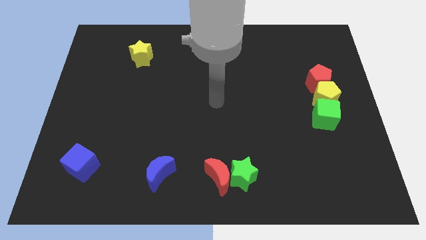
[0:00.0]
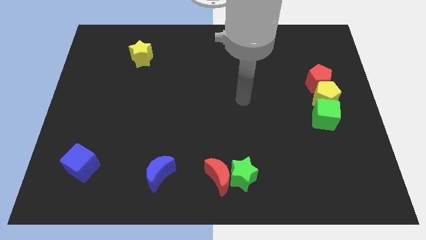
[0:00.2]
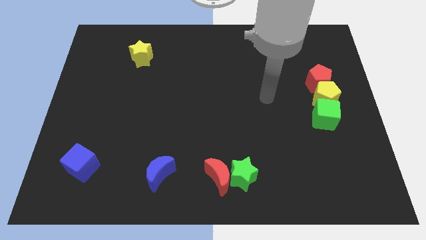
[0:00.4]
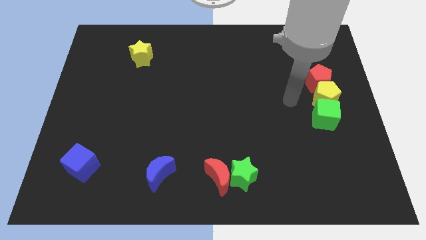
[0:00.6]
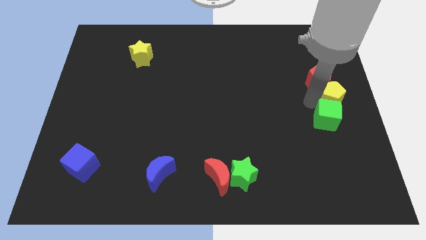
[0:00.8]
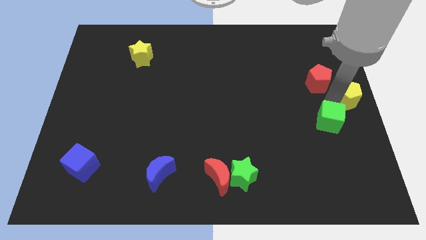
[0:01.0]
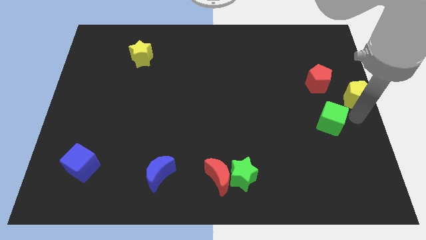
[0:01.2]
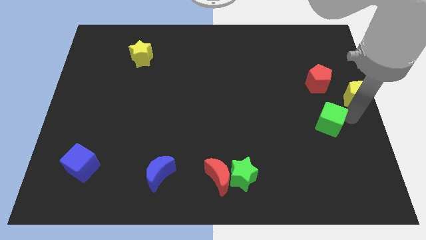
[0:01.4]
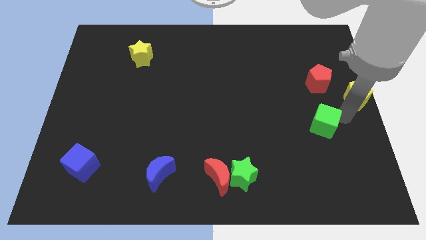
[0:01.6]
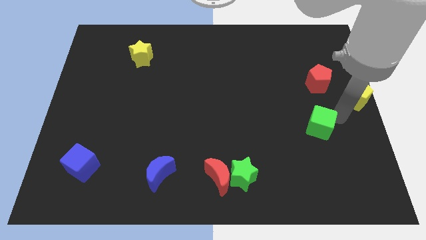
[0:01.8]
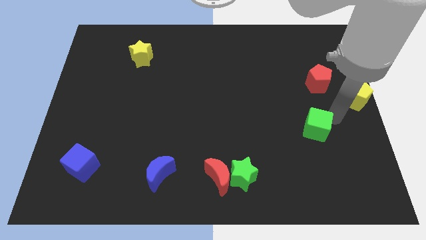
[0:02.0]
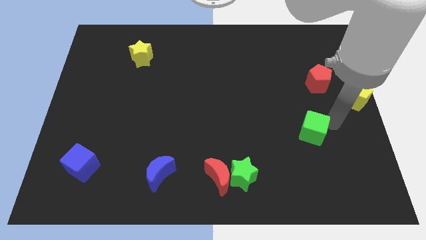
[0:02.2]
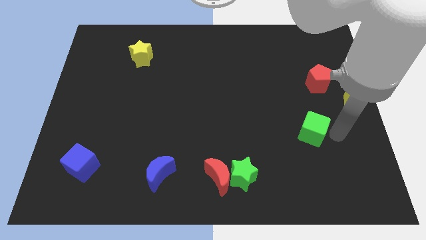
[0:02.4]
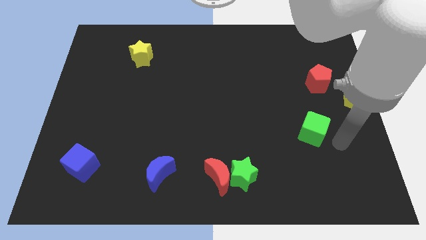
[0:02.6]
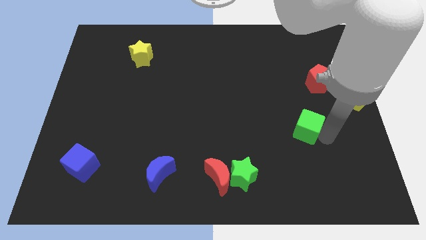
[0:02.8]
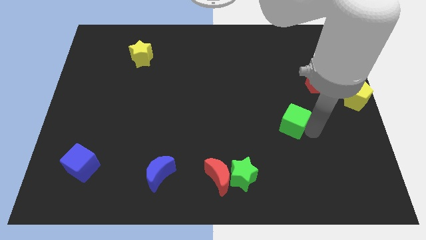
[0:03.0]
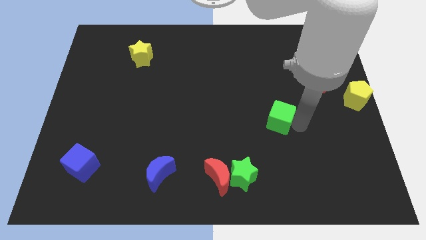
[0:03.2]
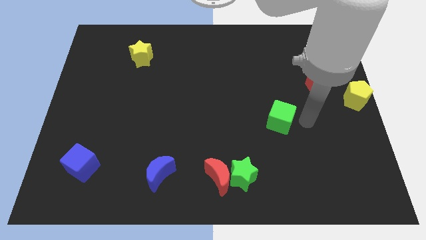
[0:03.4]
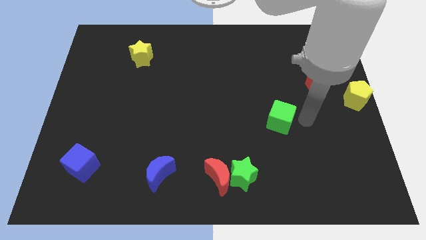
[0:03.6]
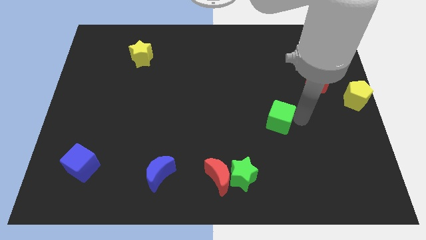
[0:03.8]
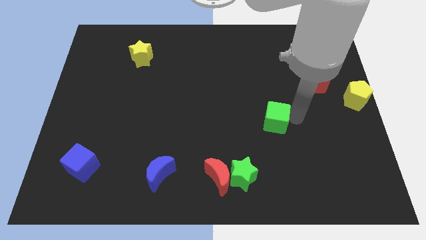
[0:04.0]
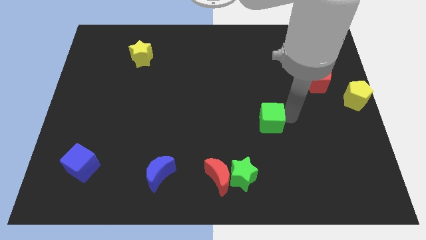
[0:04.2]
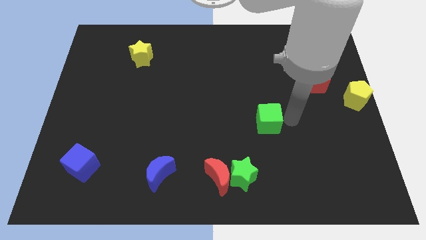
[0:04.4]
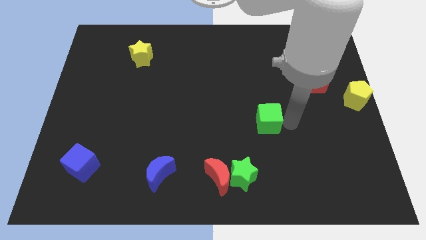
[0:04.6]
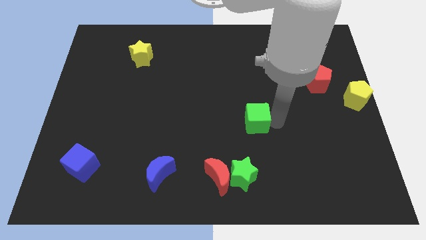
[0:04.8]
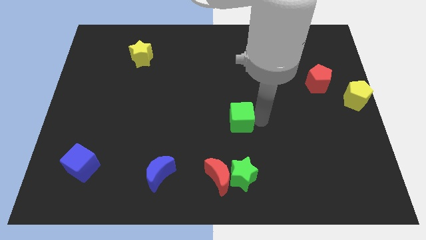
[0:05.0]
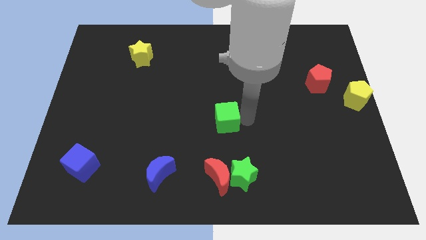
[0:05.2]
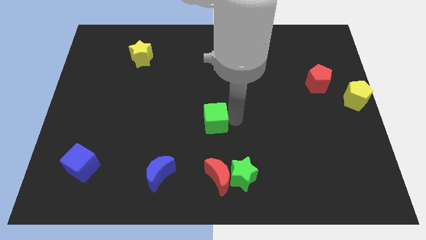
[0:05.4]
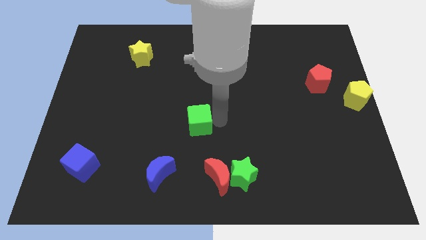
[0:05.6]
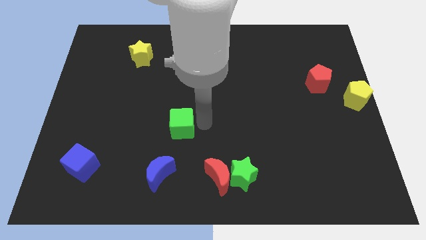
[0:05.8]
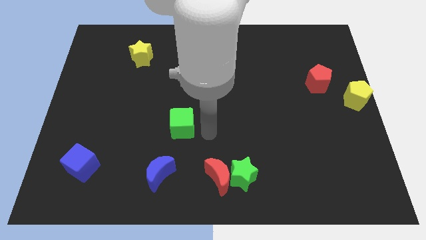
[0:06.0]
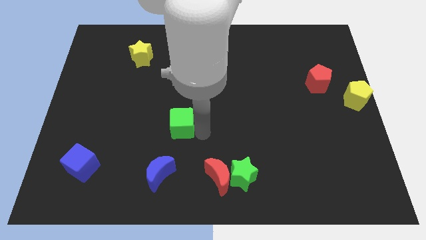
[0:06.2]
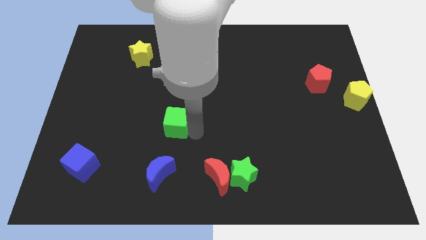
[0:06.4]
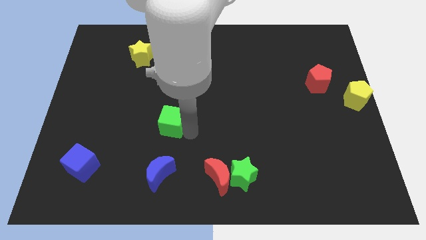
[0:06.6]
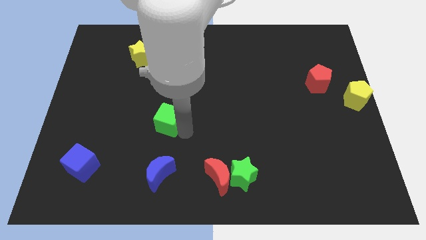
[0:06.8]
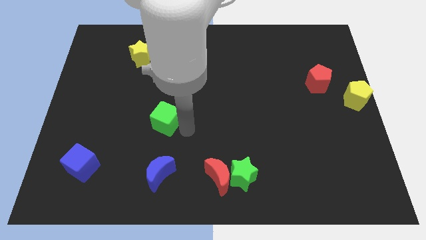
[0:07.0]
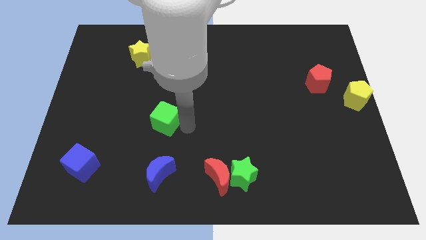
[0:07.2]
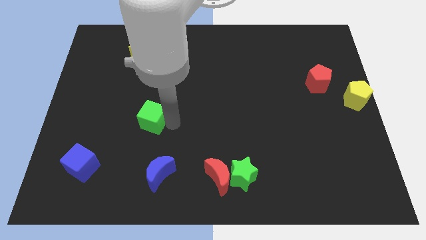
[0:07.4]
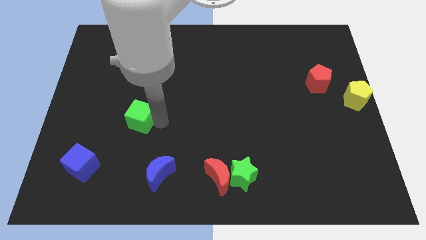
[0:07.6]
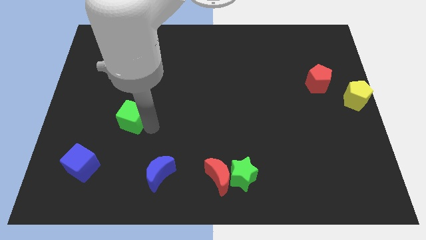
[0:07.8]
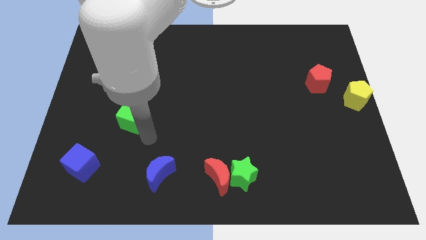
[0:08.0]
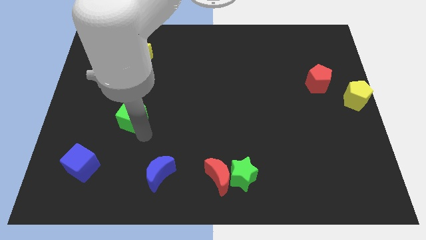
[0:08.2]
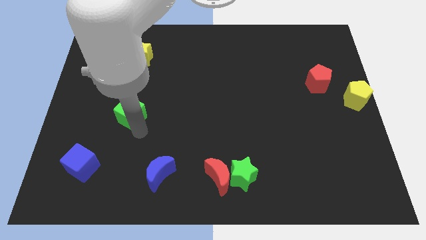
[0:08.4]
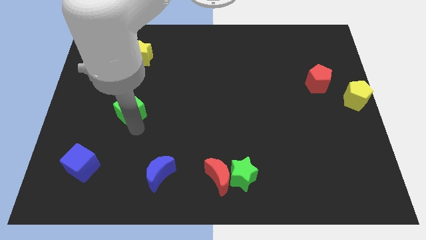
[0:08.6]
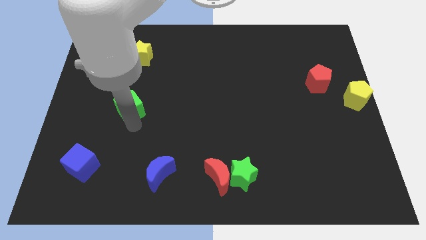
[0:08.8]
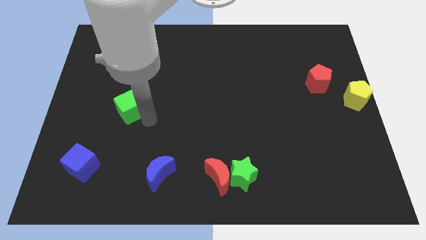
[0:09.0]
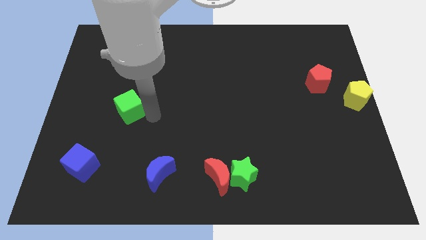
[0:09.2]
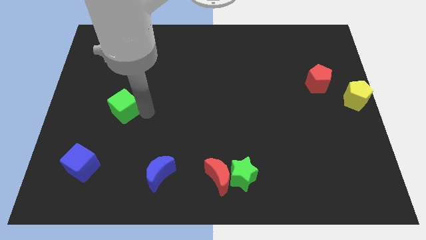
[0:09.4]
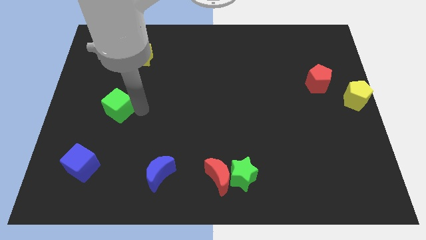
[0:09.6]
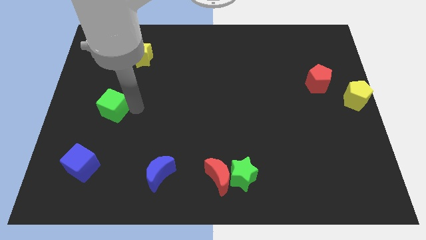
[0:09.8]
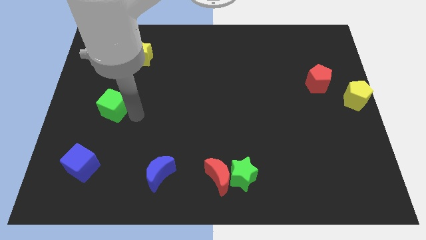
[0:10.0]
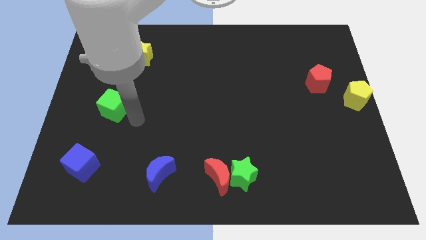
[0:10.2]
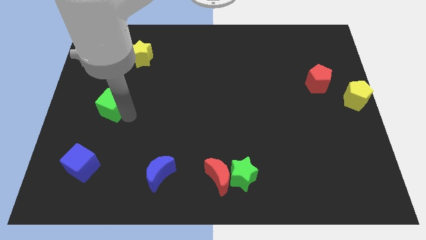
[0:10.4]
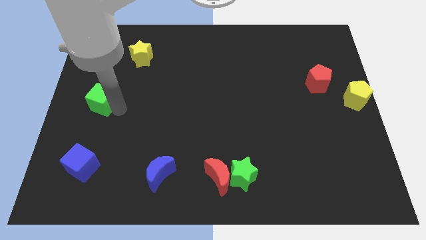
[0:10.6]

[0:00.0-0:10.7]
put the green cube to the left side of the board

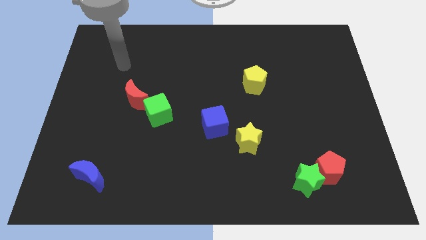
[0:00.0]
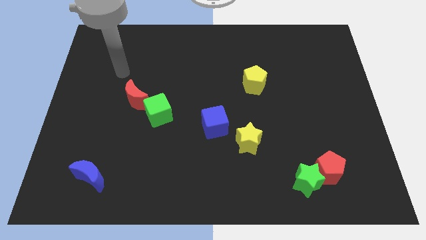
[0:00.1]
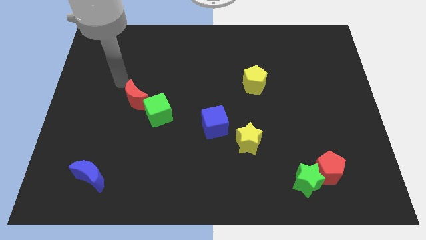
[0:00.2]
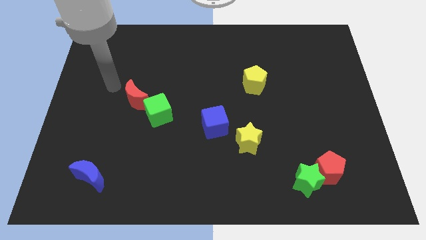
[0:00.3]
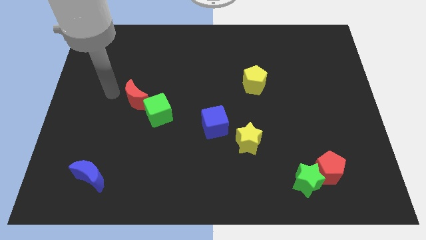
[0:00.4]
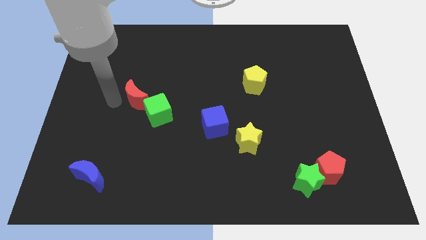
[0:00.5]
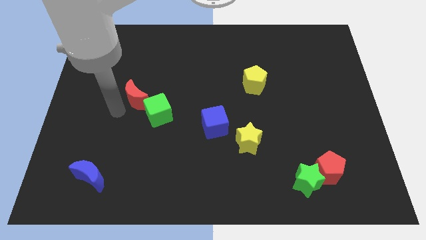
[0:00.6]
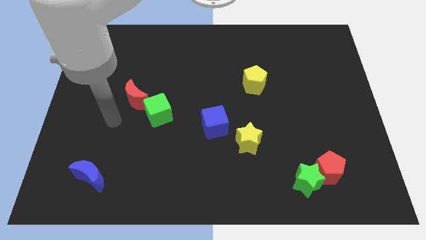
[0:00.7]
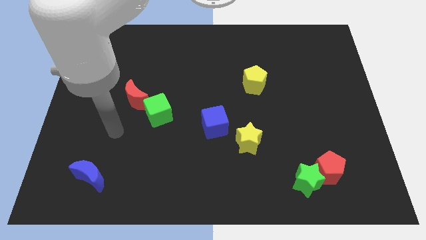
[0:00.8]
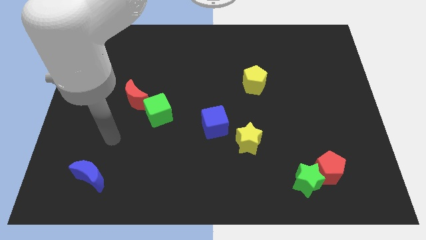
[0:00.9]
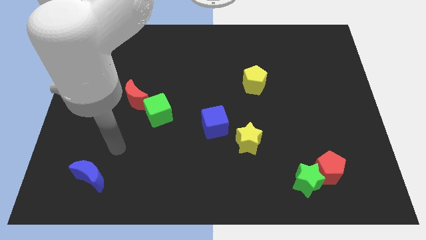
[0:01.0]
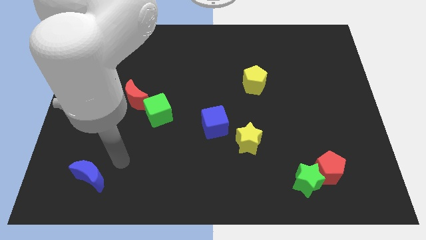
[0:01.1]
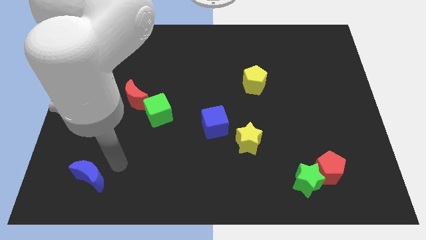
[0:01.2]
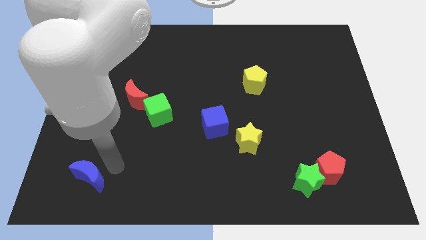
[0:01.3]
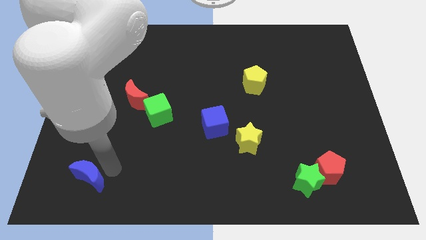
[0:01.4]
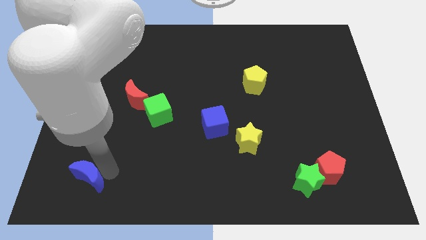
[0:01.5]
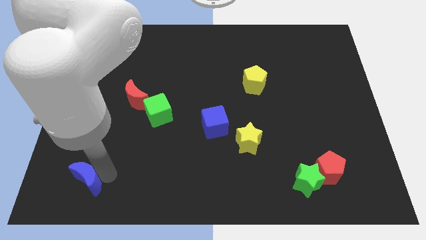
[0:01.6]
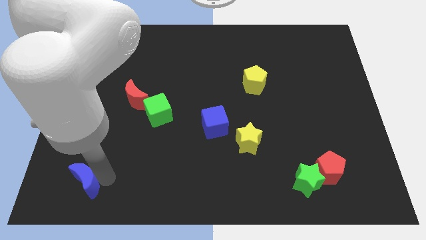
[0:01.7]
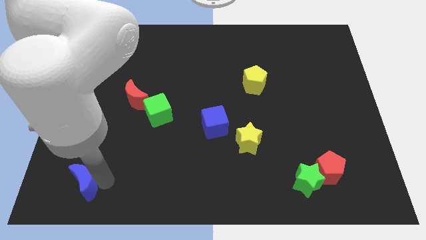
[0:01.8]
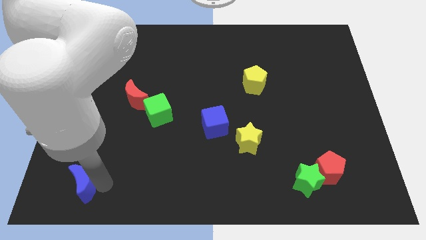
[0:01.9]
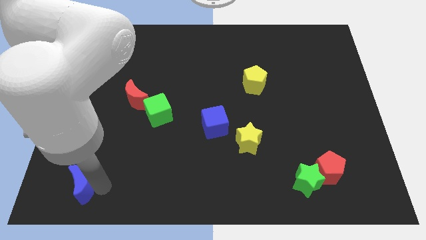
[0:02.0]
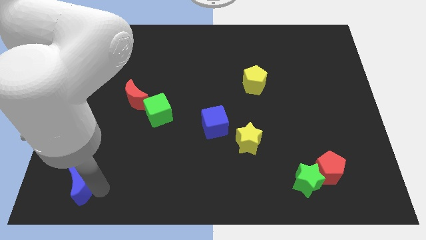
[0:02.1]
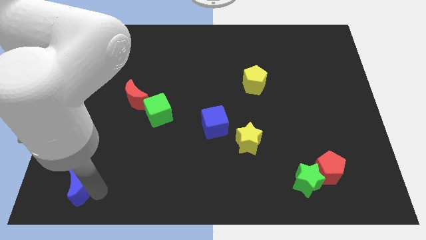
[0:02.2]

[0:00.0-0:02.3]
move the blue moon to the bottom left corner
